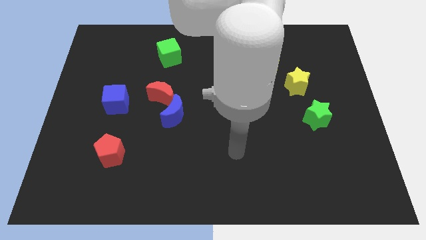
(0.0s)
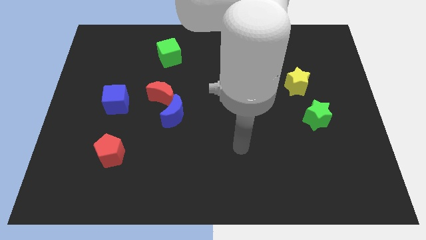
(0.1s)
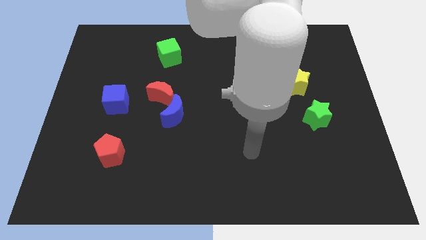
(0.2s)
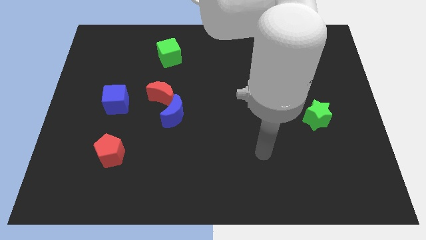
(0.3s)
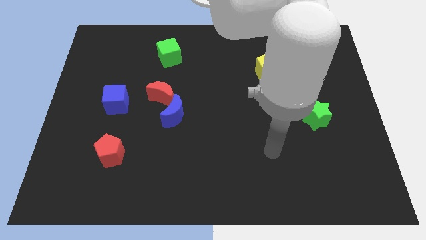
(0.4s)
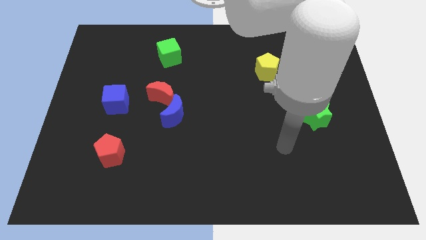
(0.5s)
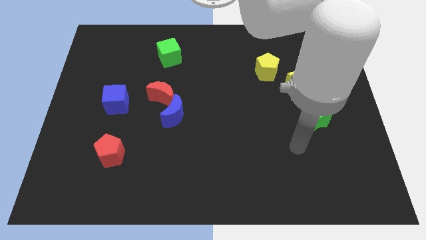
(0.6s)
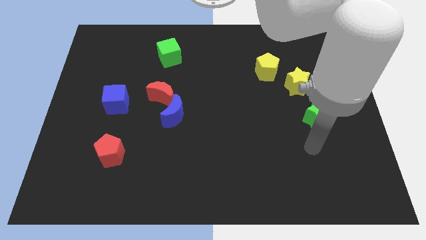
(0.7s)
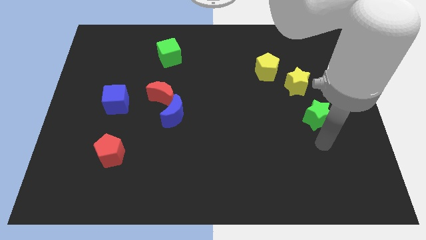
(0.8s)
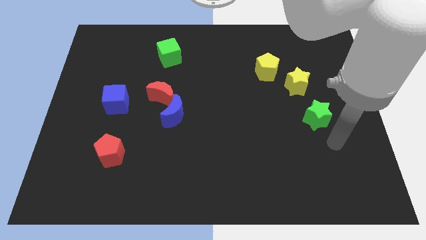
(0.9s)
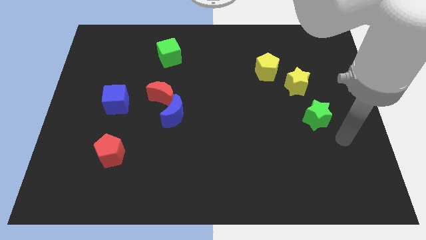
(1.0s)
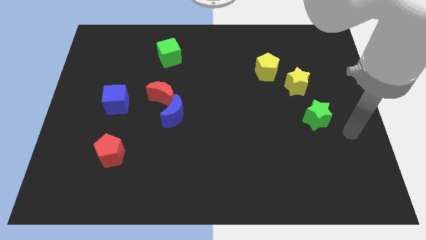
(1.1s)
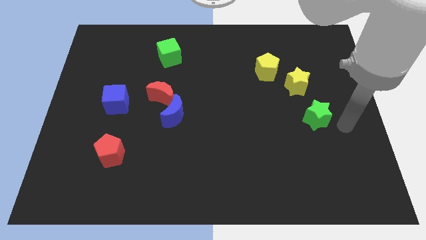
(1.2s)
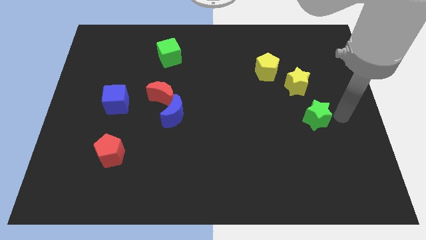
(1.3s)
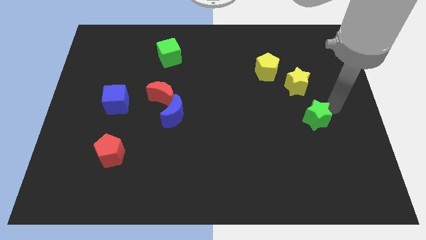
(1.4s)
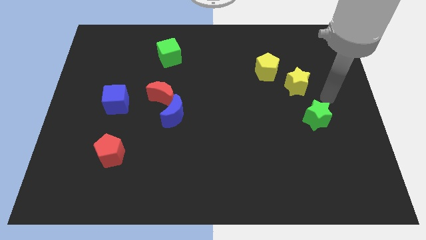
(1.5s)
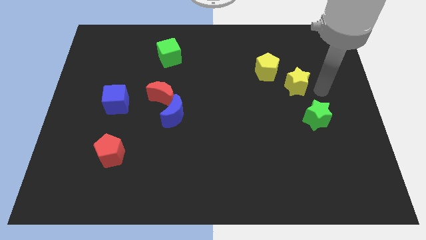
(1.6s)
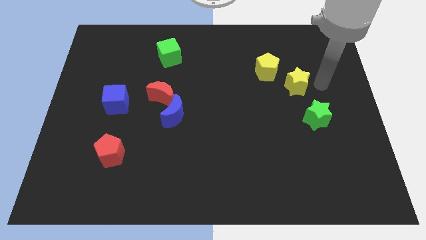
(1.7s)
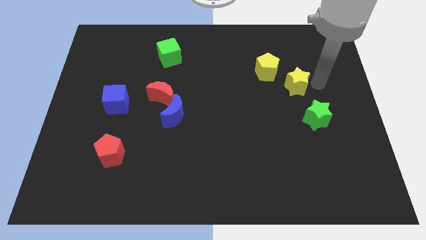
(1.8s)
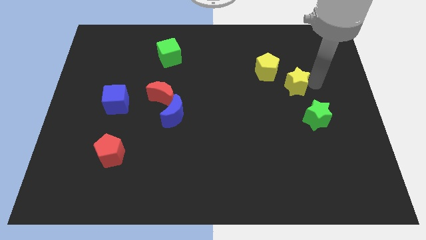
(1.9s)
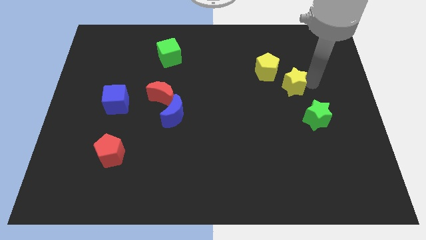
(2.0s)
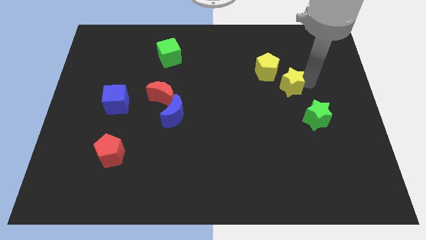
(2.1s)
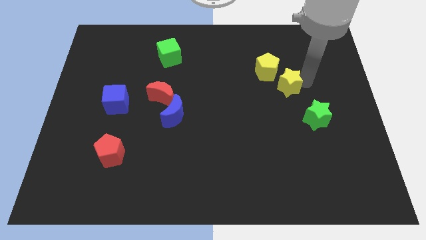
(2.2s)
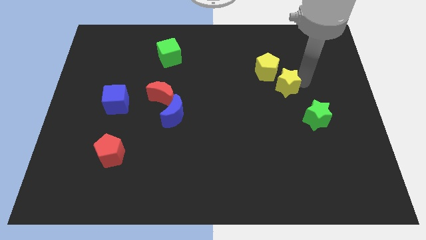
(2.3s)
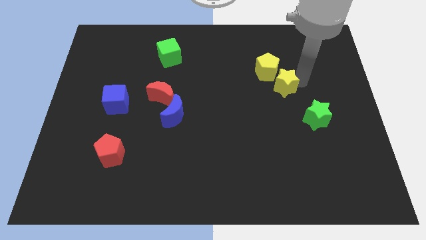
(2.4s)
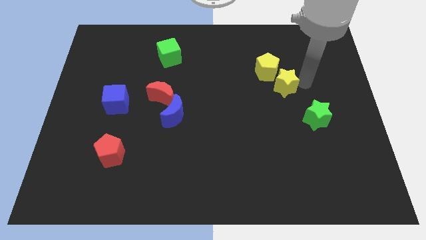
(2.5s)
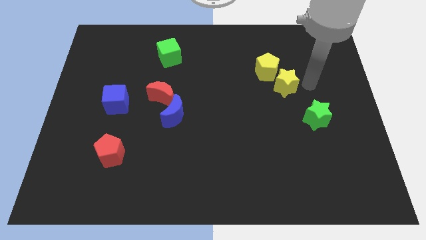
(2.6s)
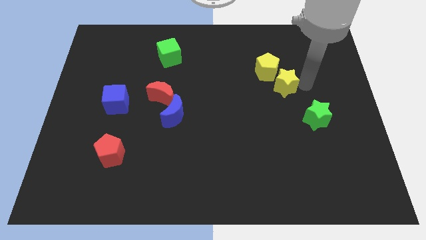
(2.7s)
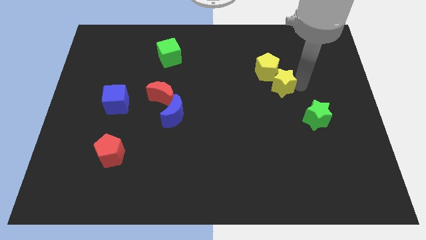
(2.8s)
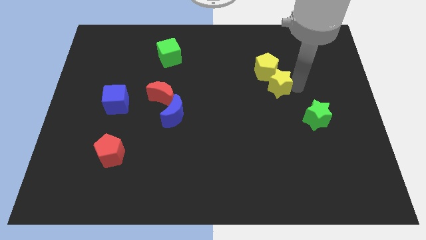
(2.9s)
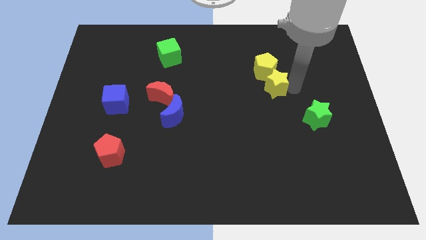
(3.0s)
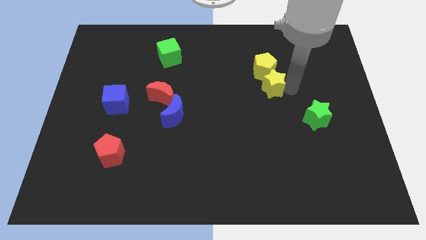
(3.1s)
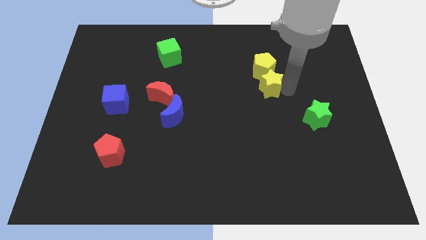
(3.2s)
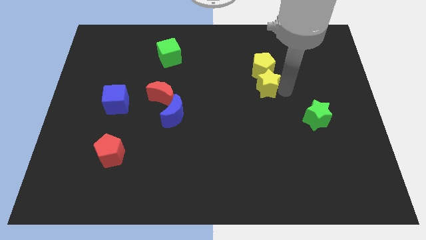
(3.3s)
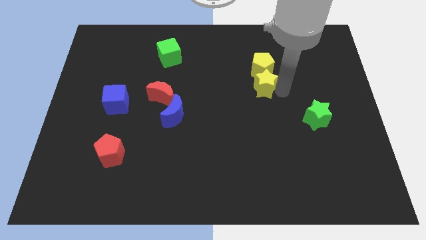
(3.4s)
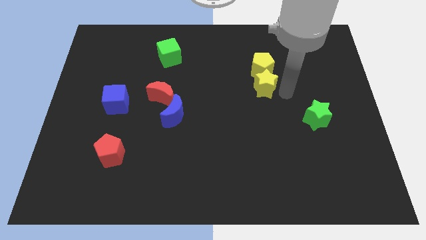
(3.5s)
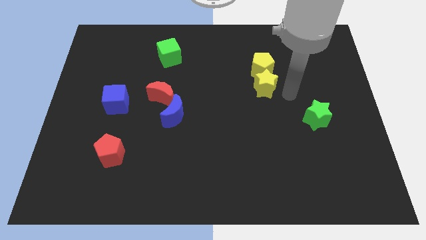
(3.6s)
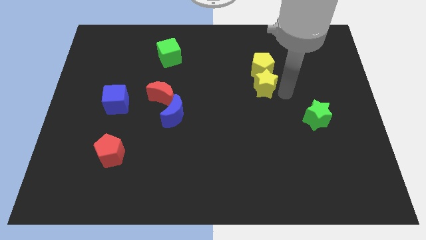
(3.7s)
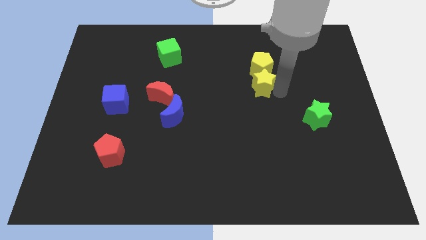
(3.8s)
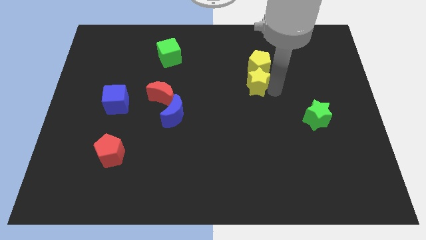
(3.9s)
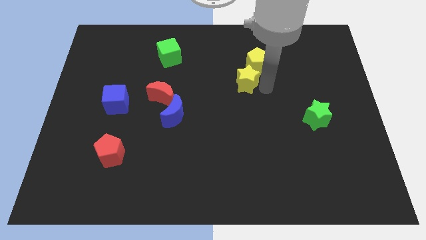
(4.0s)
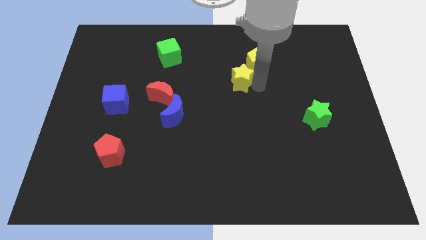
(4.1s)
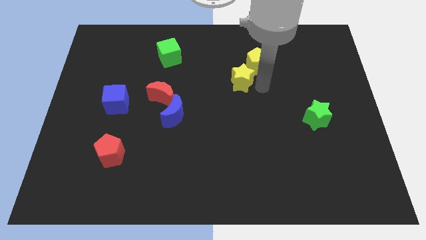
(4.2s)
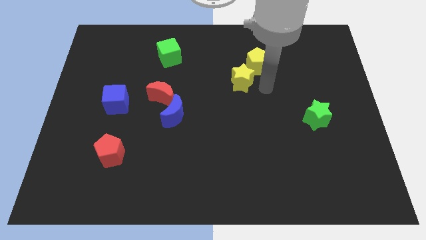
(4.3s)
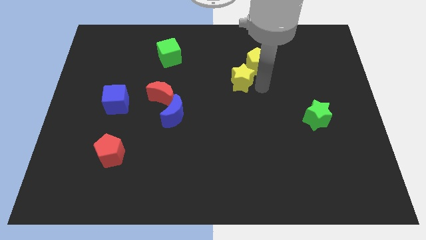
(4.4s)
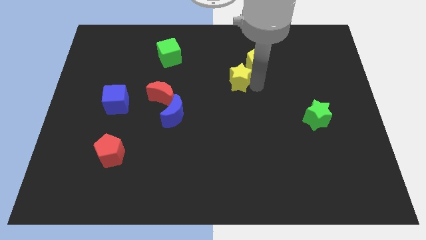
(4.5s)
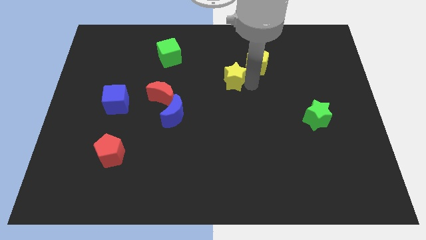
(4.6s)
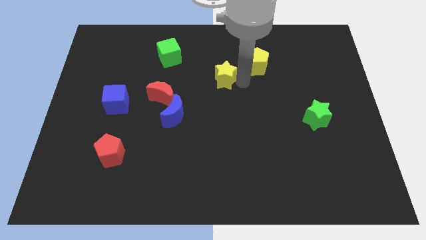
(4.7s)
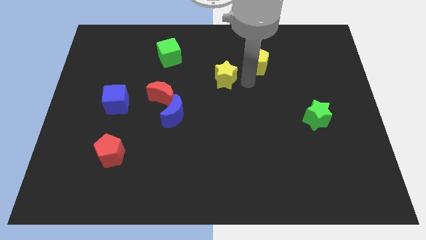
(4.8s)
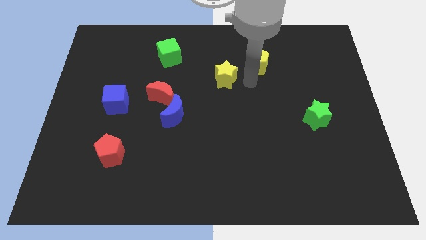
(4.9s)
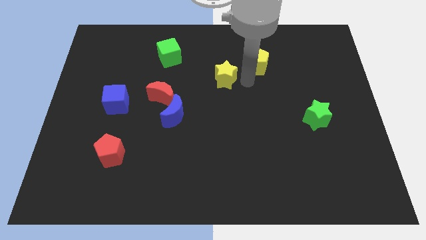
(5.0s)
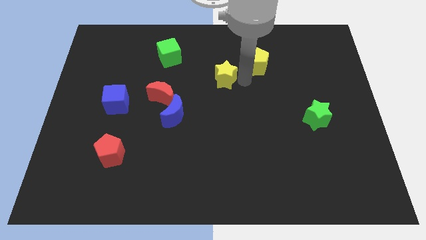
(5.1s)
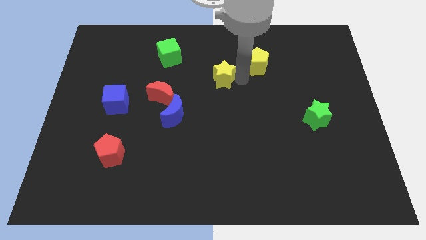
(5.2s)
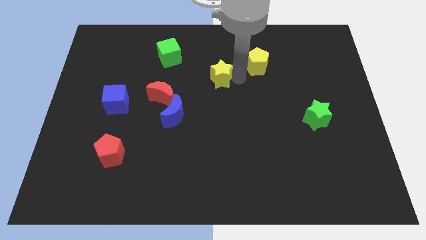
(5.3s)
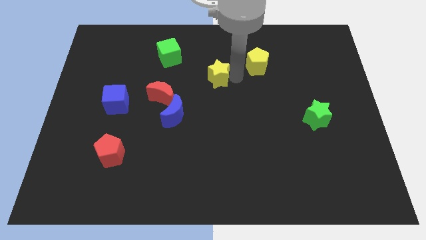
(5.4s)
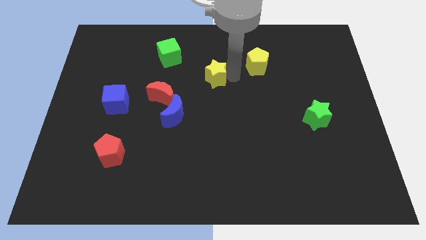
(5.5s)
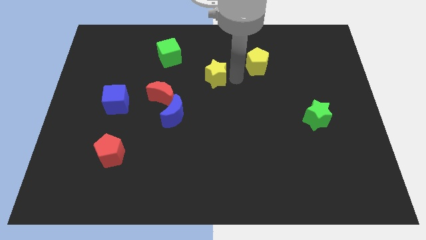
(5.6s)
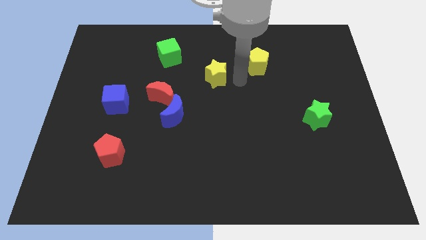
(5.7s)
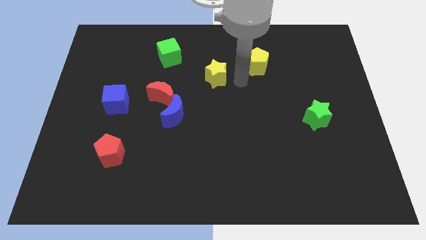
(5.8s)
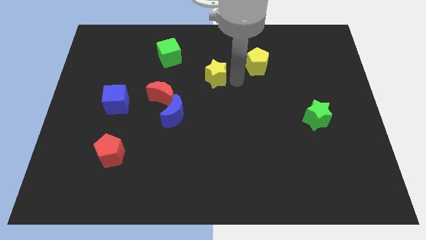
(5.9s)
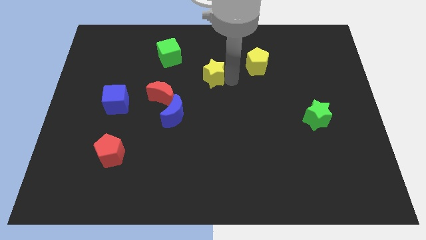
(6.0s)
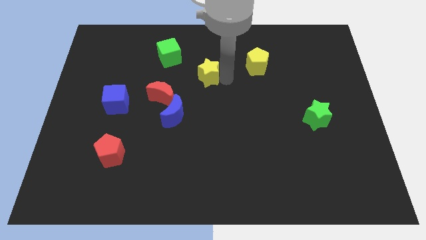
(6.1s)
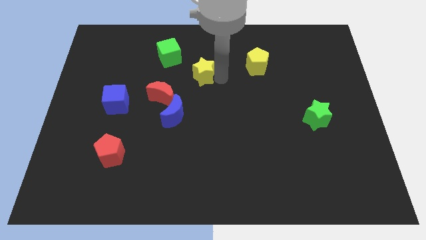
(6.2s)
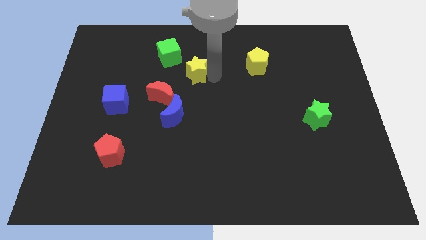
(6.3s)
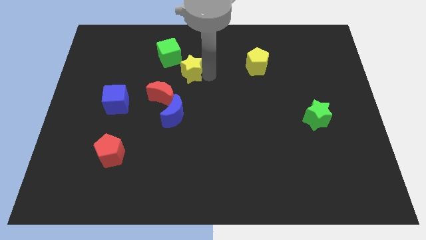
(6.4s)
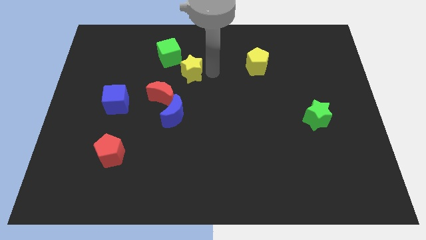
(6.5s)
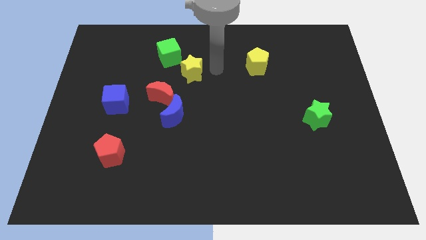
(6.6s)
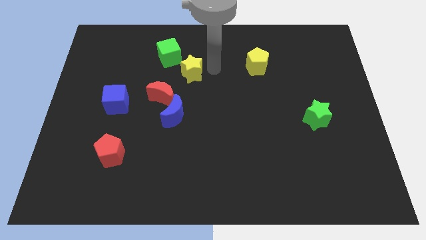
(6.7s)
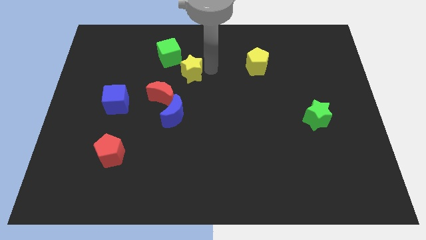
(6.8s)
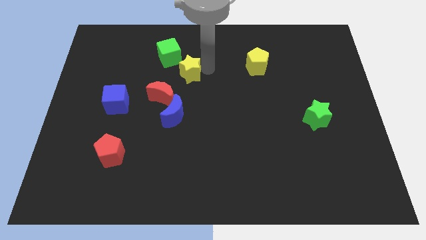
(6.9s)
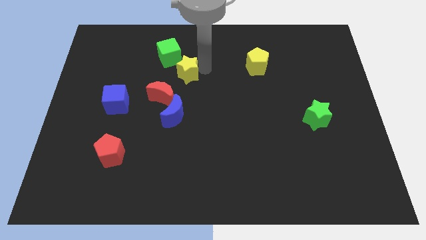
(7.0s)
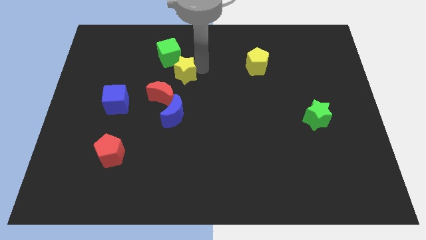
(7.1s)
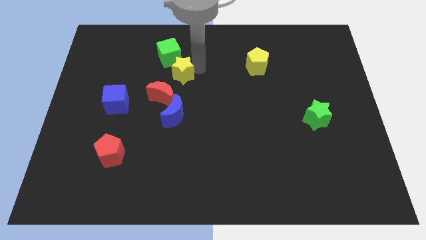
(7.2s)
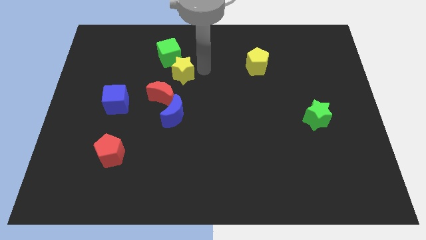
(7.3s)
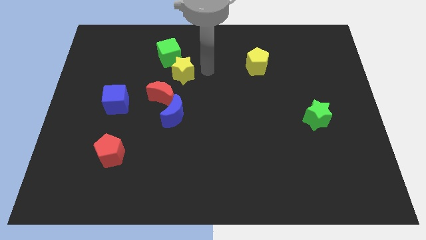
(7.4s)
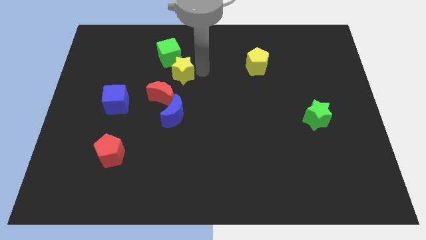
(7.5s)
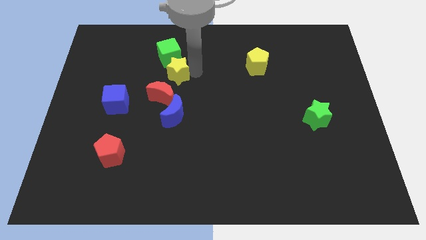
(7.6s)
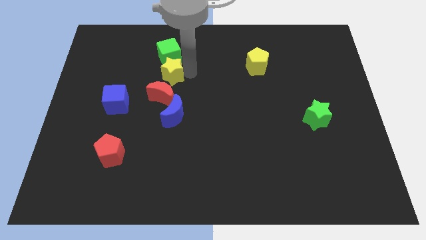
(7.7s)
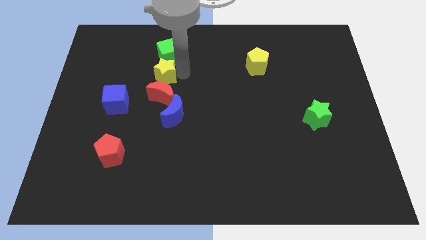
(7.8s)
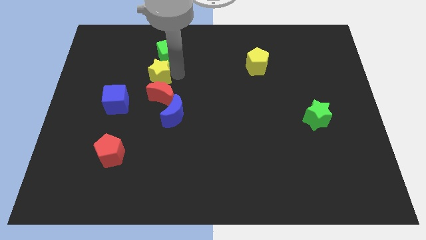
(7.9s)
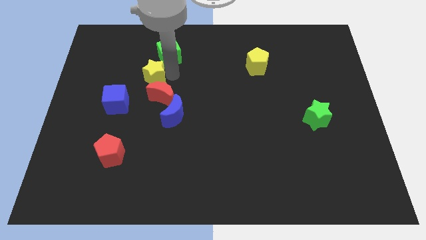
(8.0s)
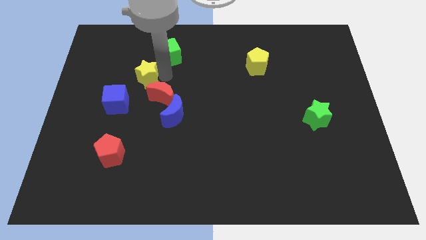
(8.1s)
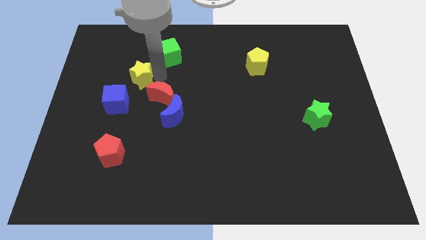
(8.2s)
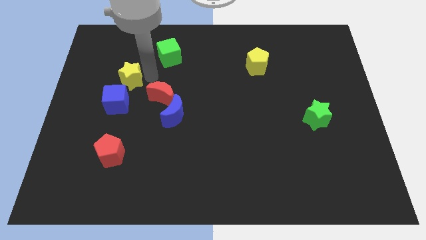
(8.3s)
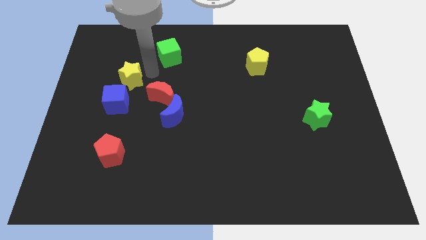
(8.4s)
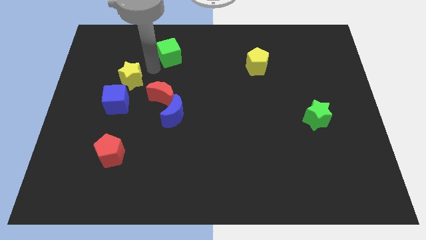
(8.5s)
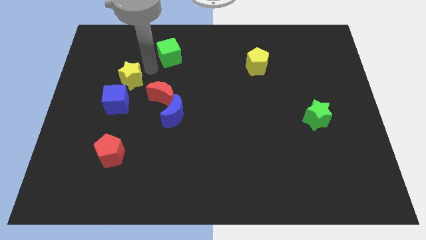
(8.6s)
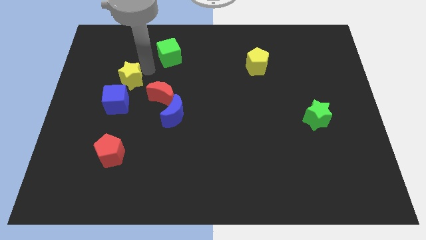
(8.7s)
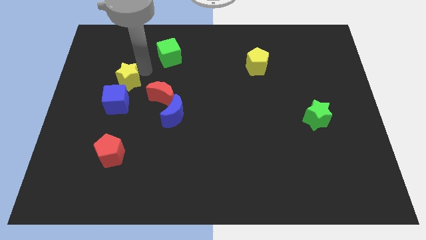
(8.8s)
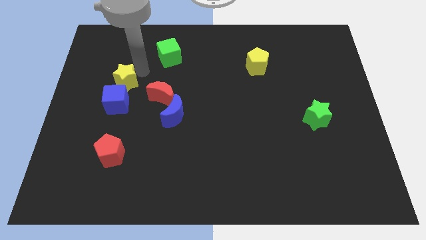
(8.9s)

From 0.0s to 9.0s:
move the yellow star just left of the red moon
